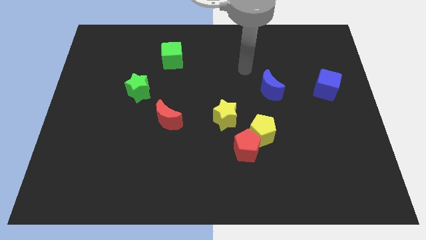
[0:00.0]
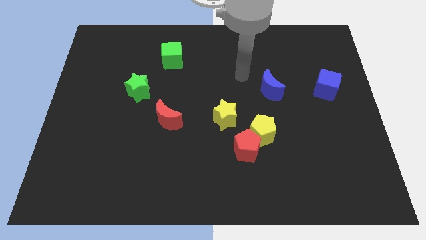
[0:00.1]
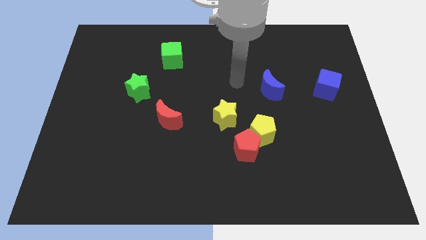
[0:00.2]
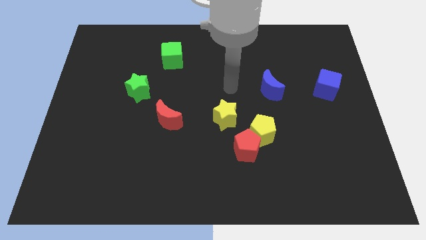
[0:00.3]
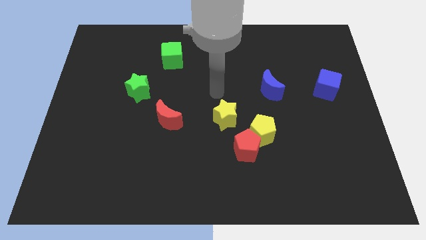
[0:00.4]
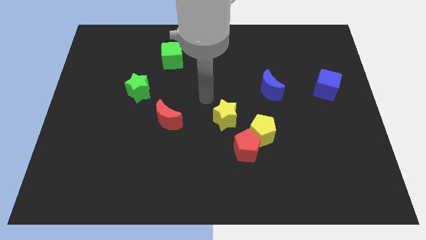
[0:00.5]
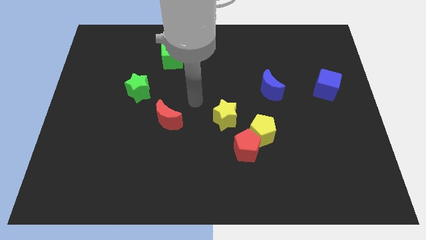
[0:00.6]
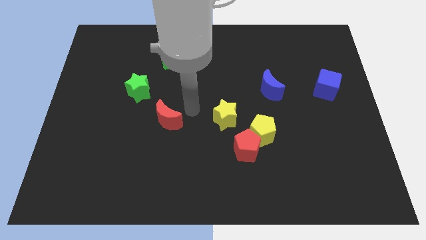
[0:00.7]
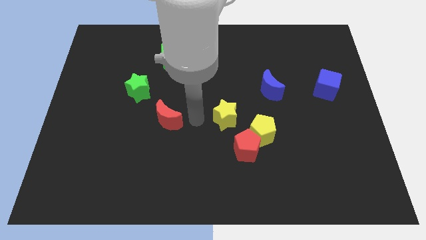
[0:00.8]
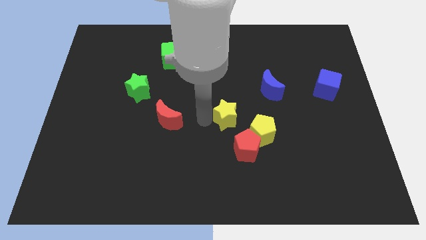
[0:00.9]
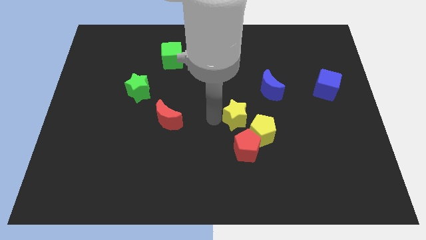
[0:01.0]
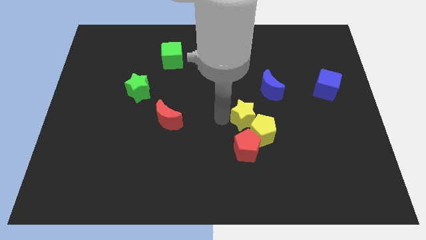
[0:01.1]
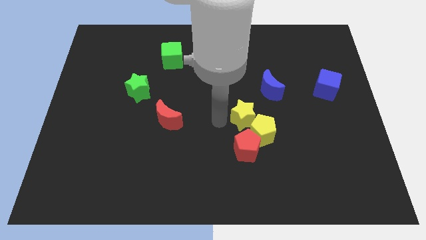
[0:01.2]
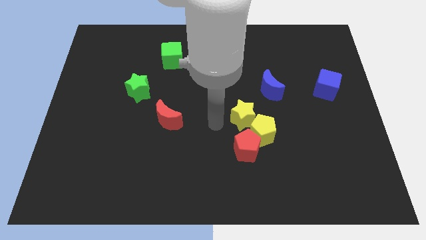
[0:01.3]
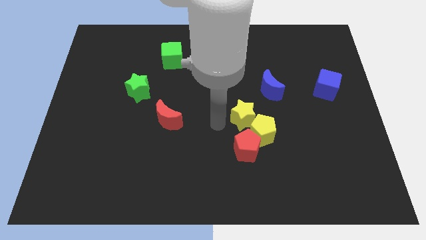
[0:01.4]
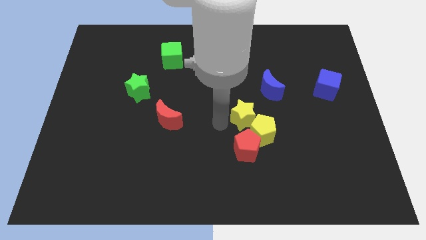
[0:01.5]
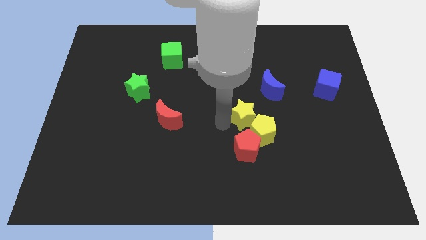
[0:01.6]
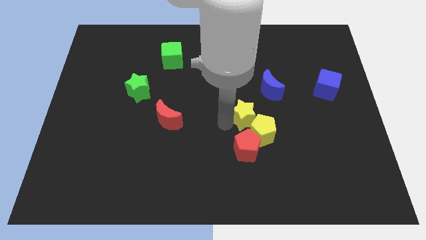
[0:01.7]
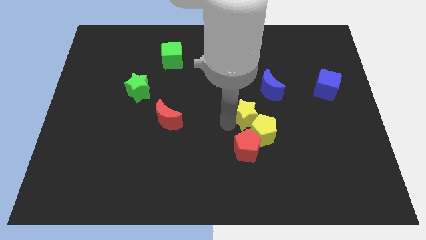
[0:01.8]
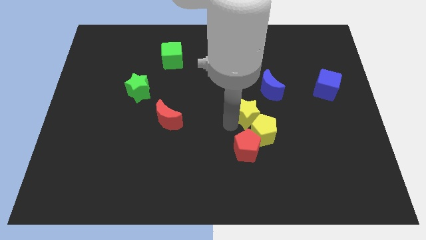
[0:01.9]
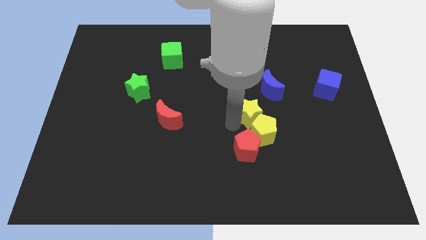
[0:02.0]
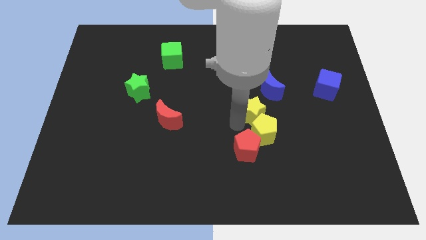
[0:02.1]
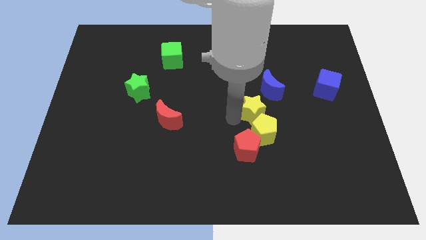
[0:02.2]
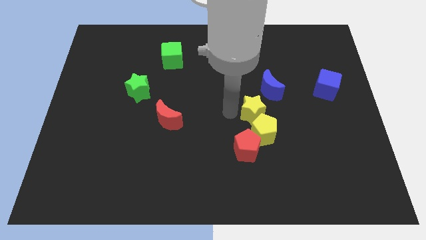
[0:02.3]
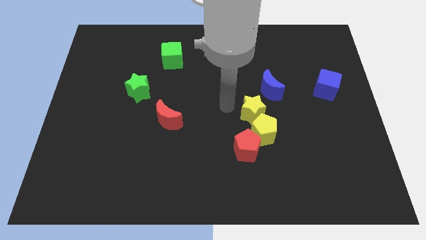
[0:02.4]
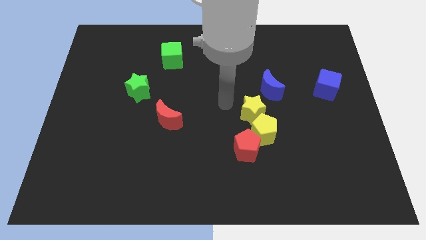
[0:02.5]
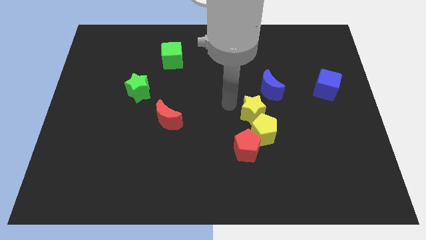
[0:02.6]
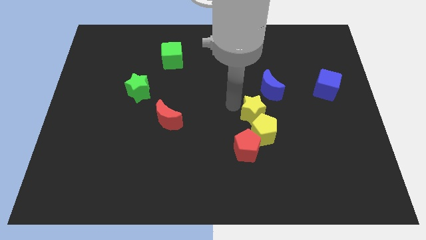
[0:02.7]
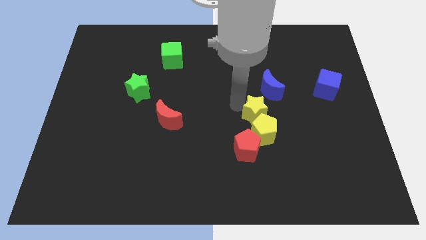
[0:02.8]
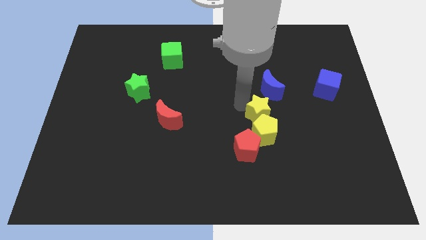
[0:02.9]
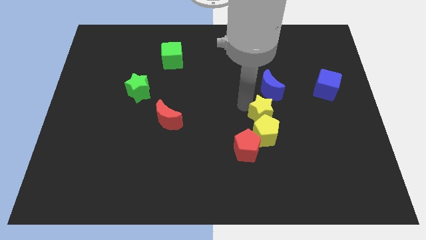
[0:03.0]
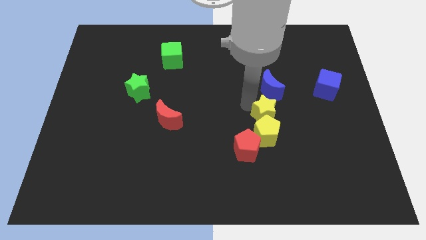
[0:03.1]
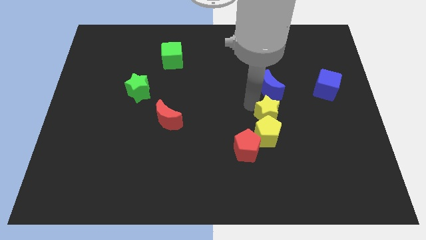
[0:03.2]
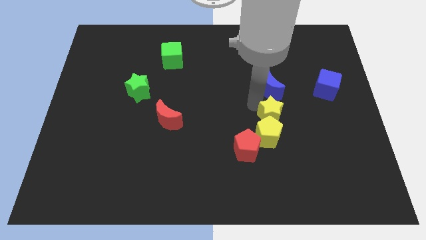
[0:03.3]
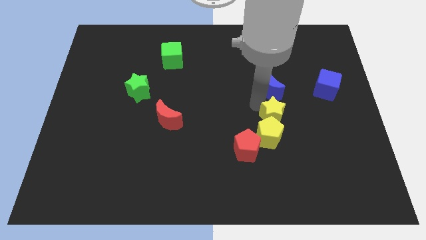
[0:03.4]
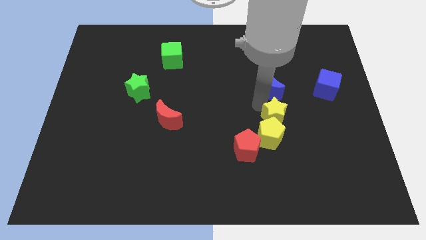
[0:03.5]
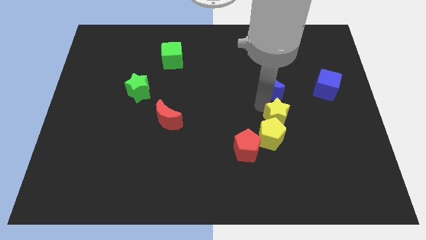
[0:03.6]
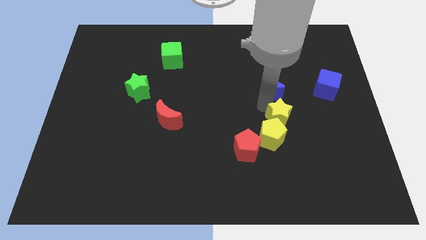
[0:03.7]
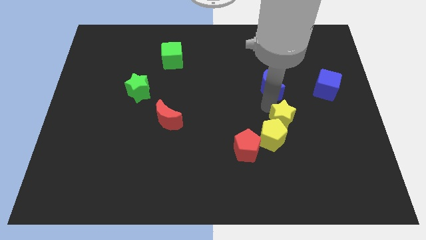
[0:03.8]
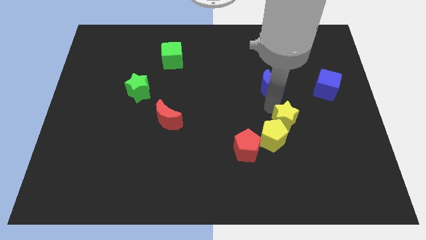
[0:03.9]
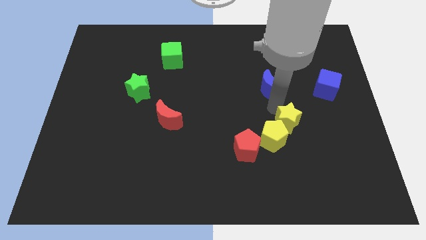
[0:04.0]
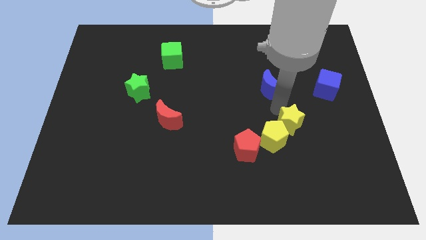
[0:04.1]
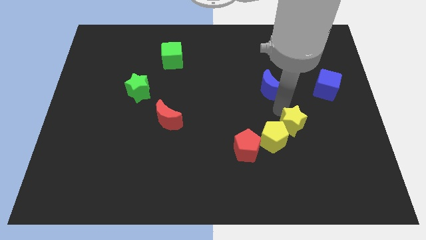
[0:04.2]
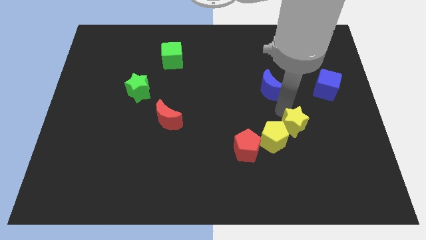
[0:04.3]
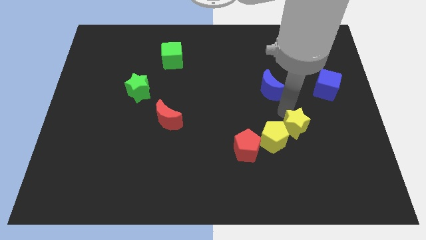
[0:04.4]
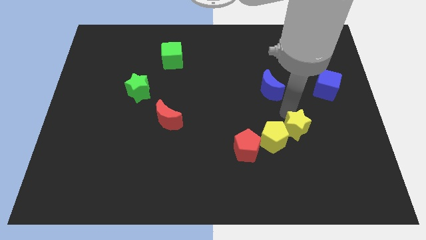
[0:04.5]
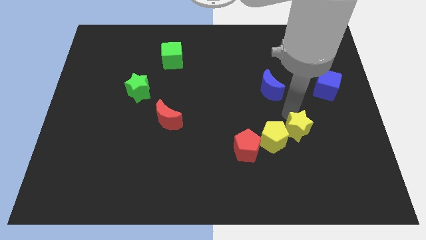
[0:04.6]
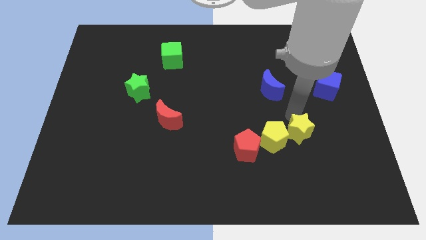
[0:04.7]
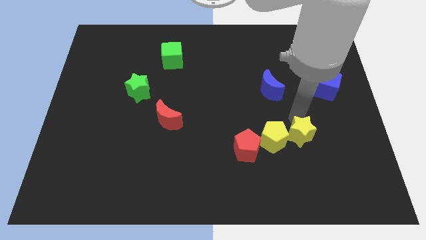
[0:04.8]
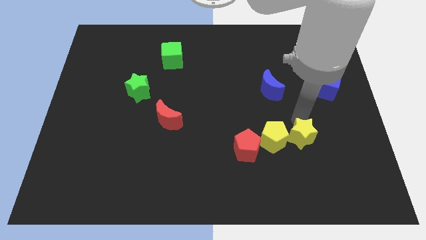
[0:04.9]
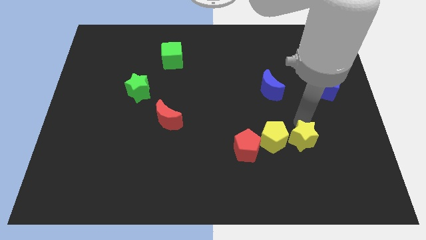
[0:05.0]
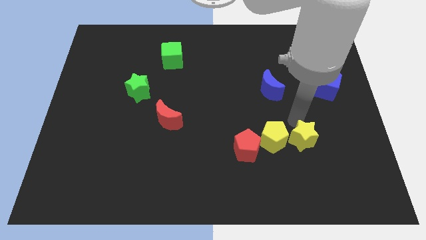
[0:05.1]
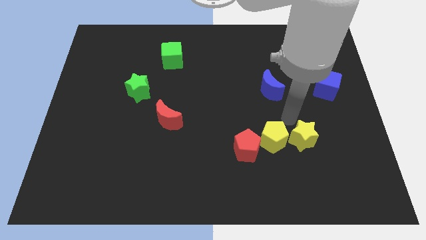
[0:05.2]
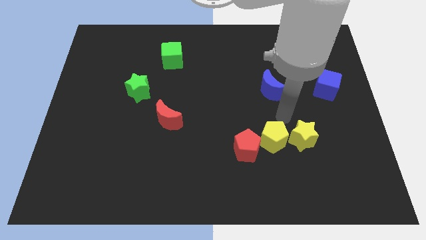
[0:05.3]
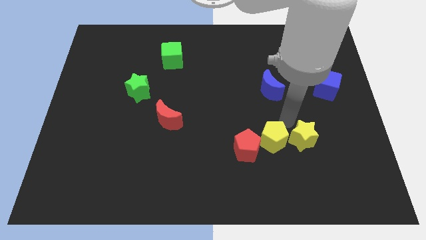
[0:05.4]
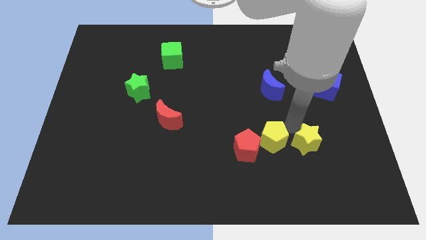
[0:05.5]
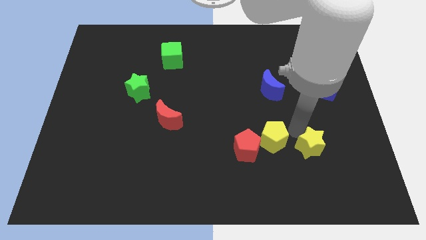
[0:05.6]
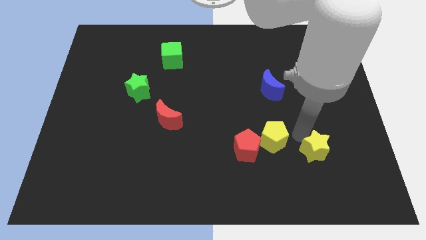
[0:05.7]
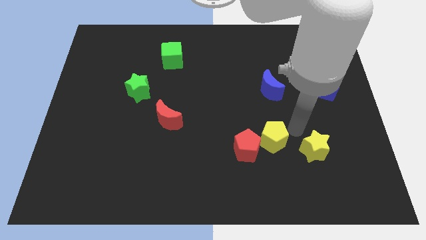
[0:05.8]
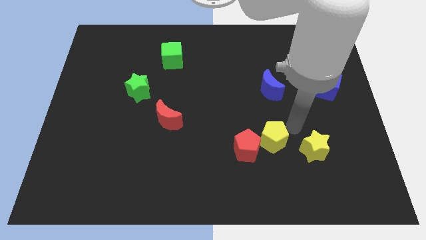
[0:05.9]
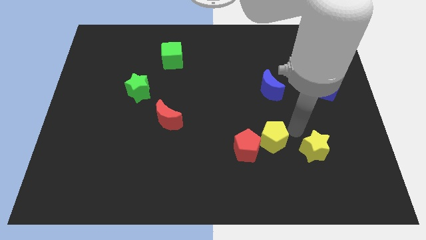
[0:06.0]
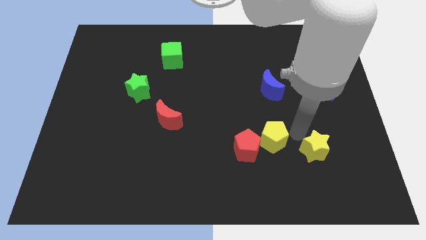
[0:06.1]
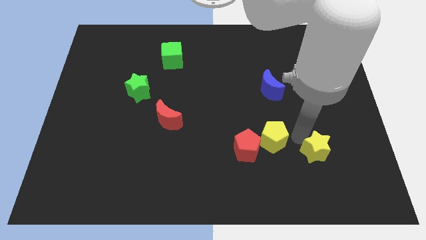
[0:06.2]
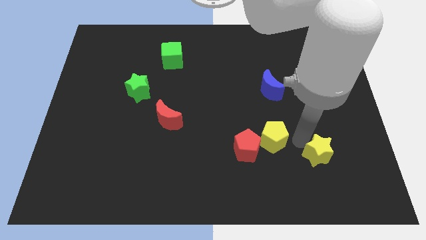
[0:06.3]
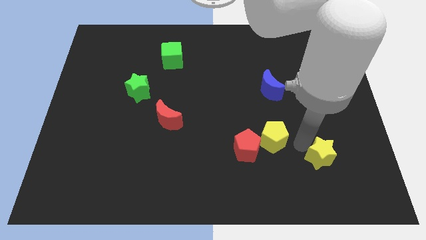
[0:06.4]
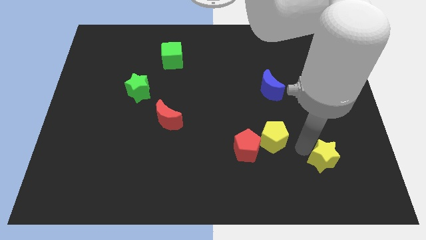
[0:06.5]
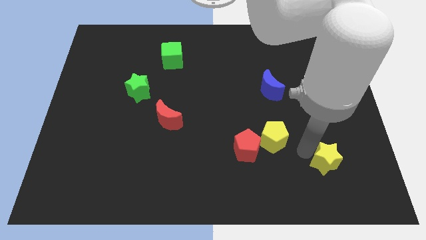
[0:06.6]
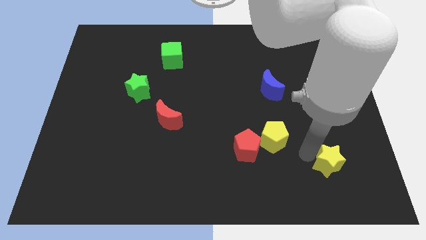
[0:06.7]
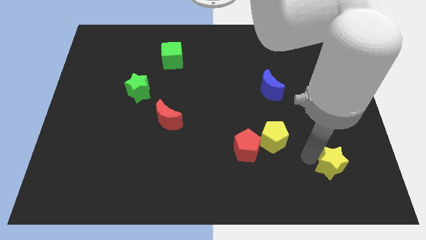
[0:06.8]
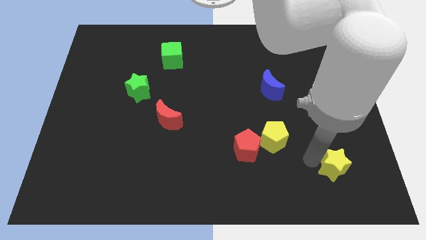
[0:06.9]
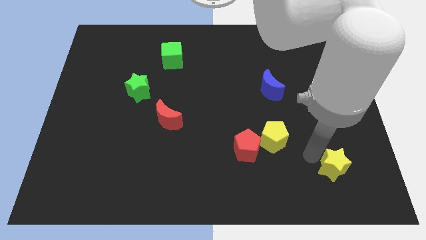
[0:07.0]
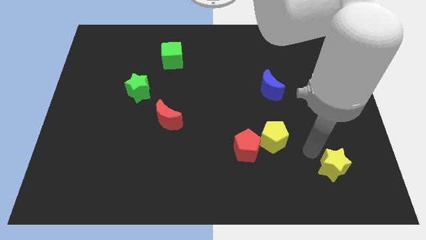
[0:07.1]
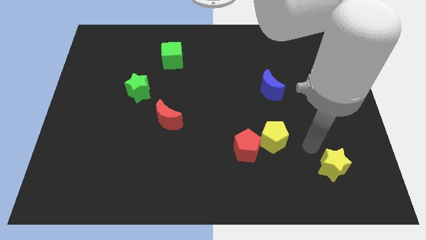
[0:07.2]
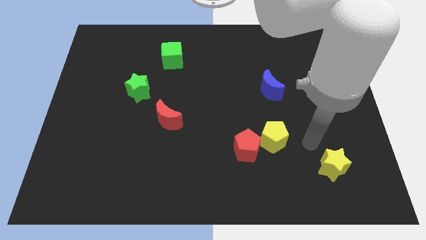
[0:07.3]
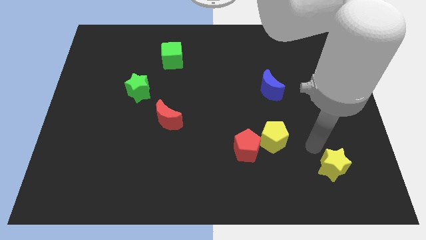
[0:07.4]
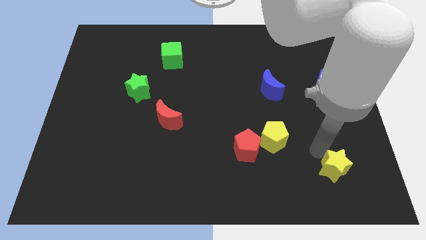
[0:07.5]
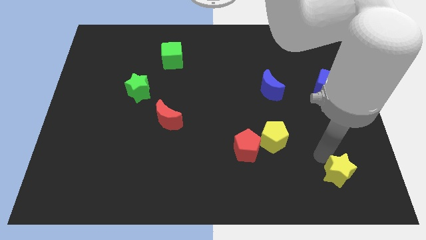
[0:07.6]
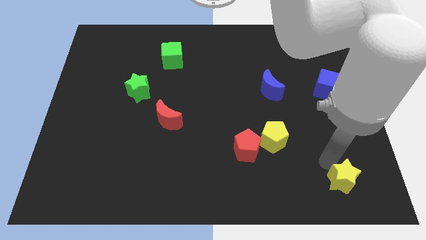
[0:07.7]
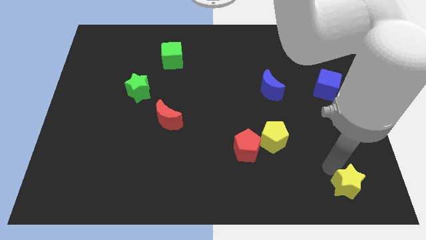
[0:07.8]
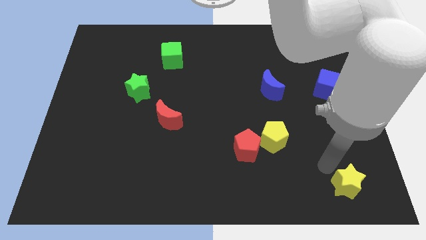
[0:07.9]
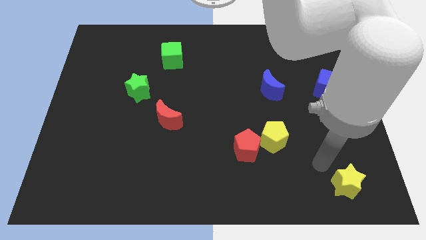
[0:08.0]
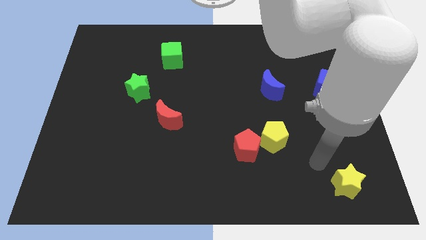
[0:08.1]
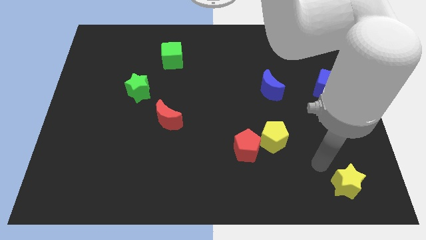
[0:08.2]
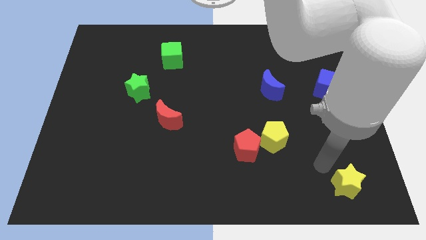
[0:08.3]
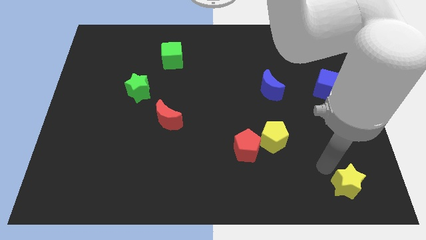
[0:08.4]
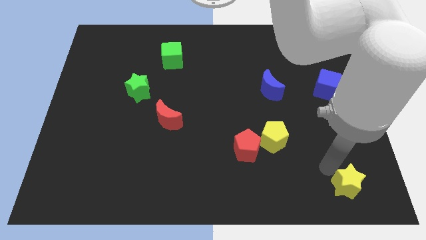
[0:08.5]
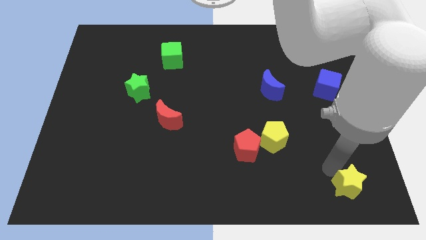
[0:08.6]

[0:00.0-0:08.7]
push the yellow star to the lower right corner
